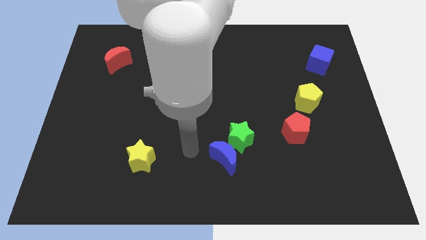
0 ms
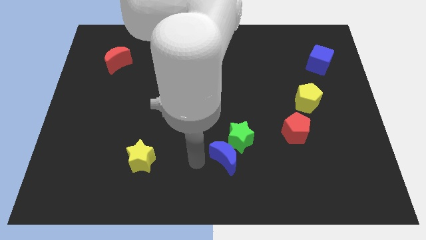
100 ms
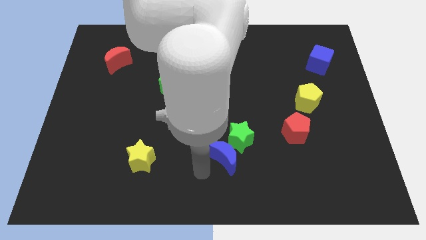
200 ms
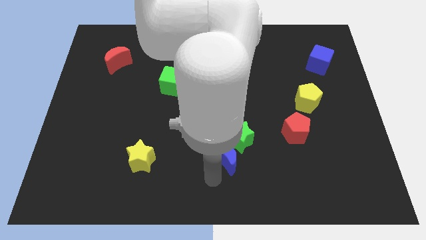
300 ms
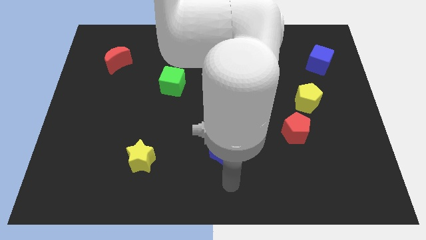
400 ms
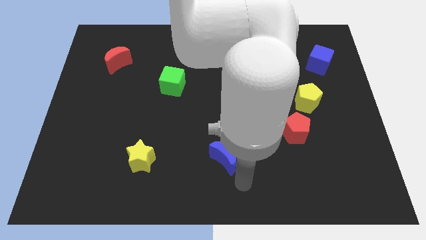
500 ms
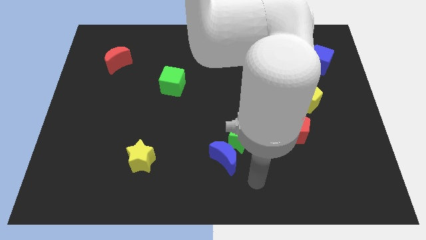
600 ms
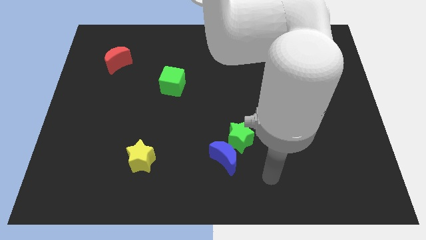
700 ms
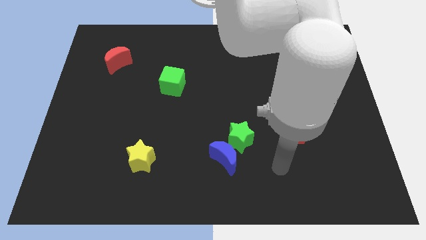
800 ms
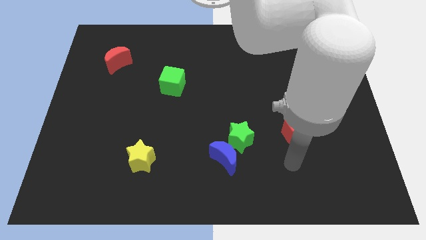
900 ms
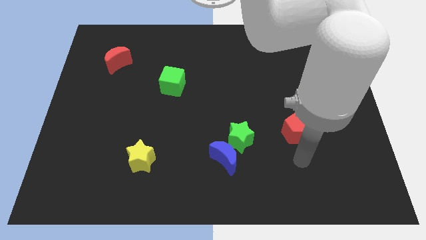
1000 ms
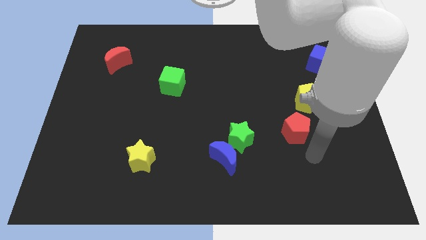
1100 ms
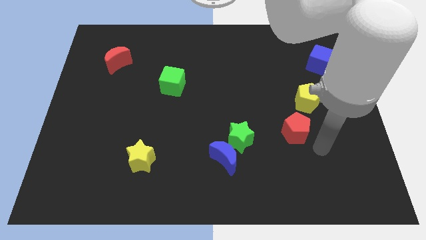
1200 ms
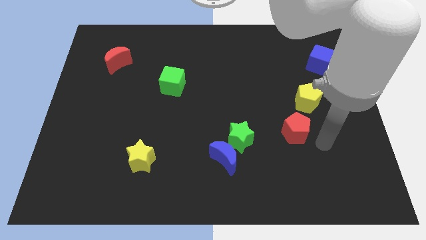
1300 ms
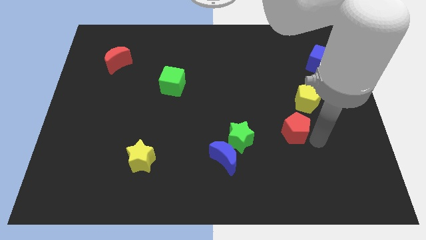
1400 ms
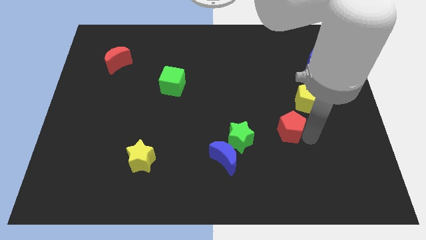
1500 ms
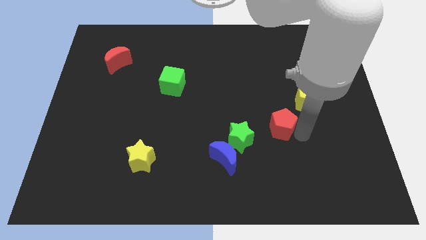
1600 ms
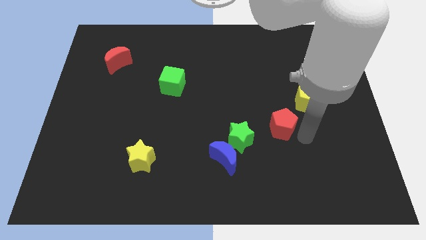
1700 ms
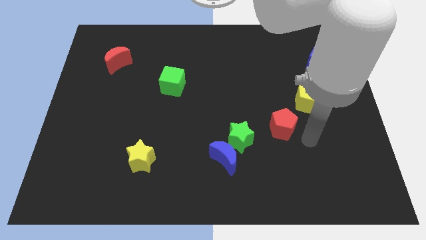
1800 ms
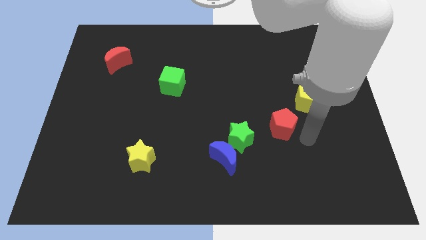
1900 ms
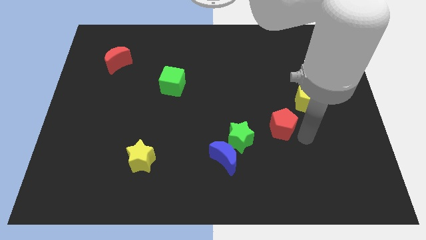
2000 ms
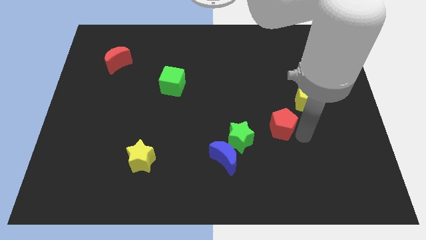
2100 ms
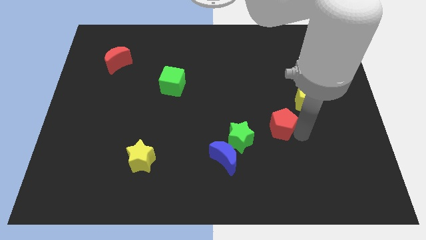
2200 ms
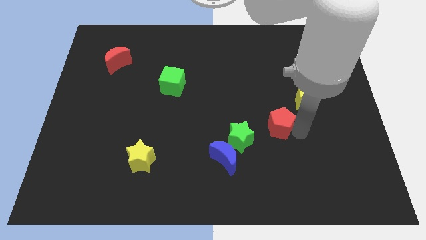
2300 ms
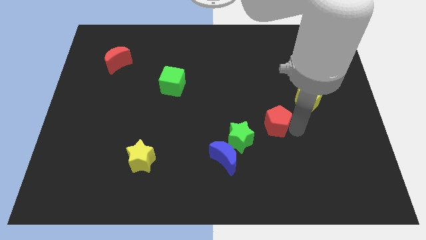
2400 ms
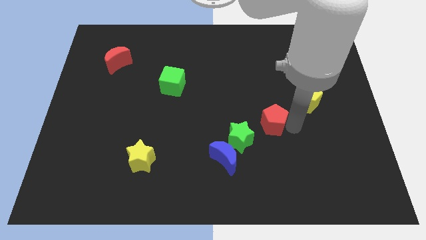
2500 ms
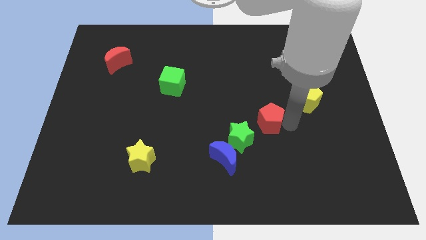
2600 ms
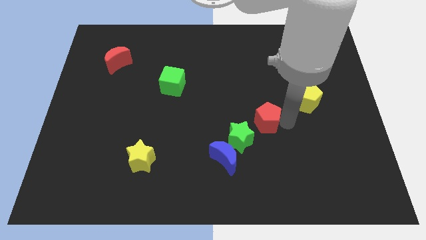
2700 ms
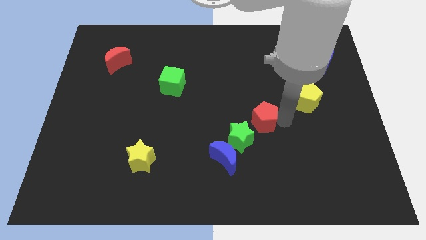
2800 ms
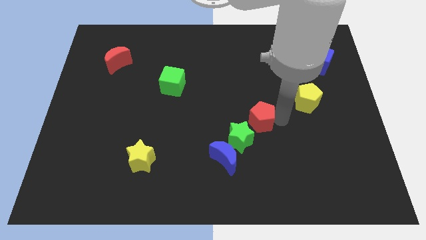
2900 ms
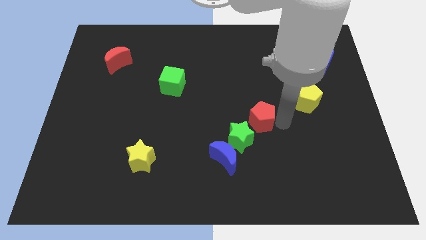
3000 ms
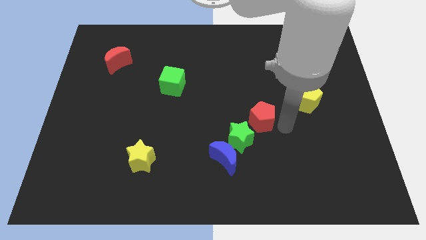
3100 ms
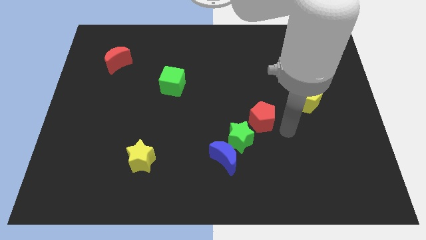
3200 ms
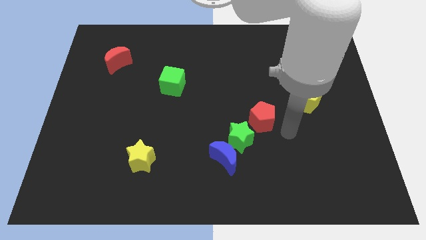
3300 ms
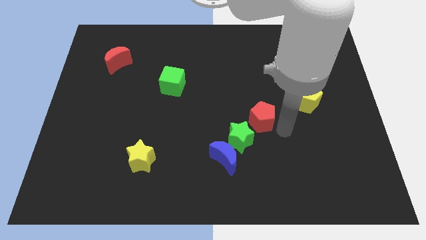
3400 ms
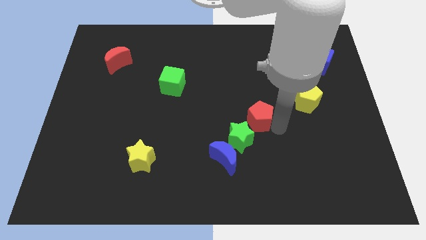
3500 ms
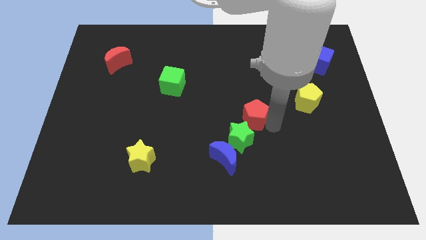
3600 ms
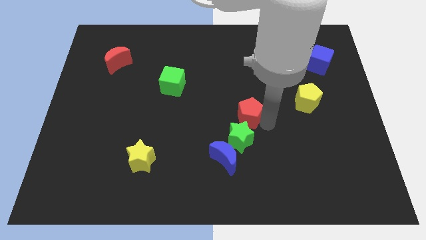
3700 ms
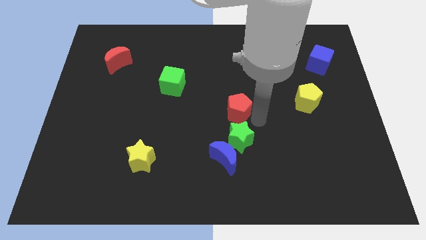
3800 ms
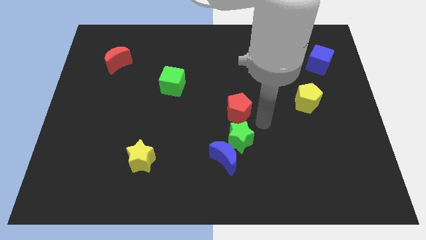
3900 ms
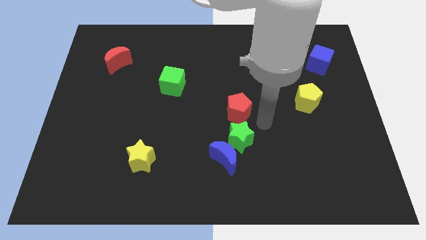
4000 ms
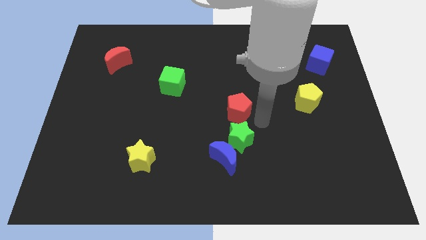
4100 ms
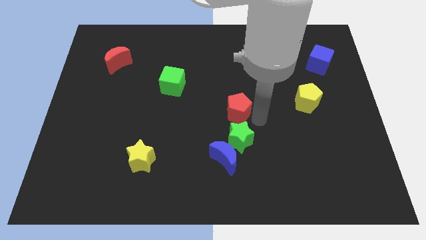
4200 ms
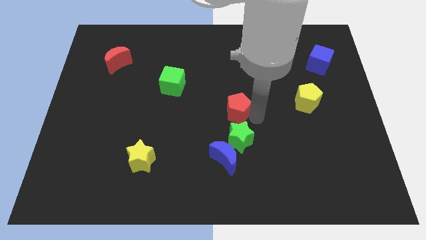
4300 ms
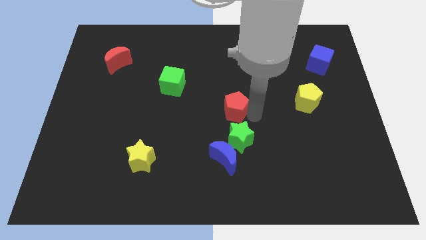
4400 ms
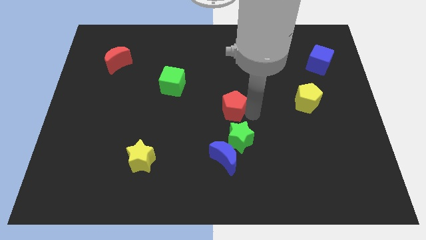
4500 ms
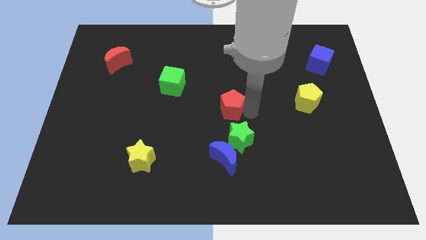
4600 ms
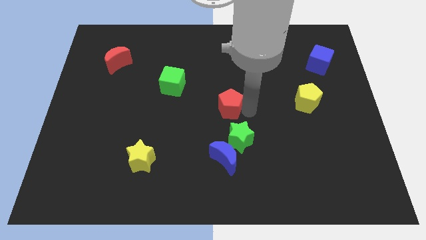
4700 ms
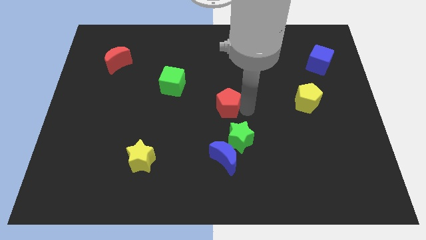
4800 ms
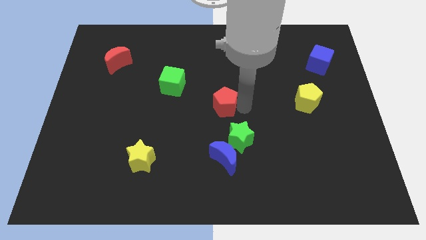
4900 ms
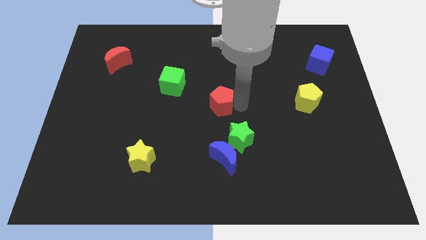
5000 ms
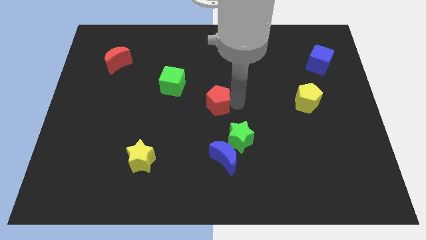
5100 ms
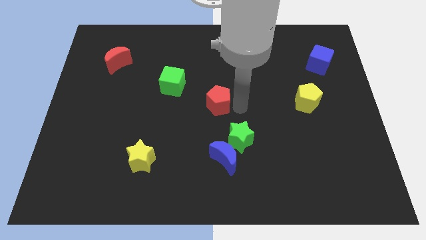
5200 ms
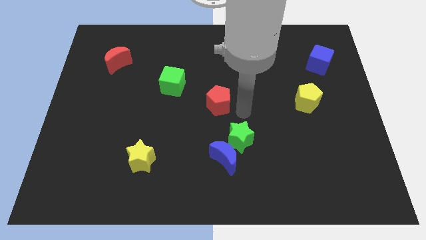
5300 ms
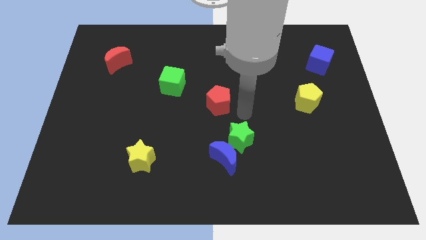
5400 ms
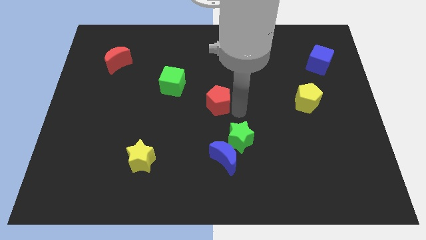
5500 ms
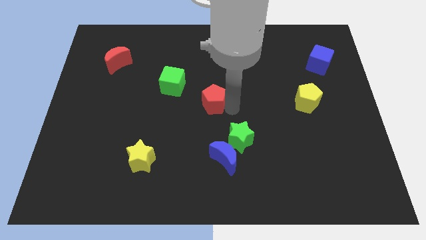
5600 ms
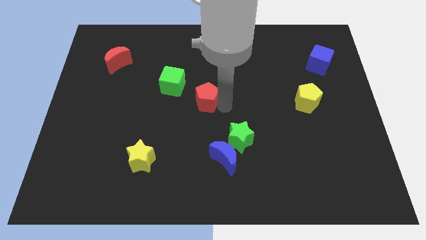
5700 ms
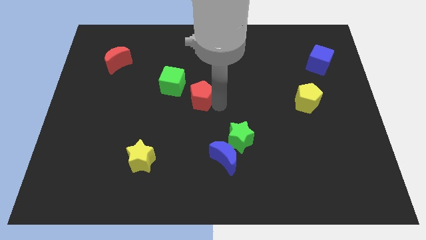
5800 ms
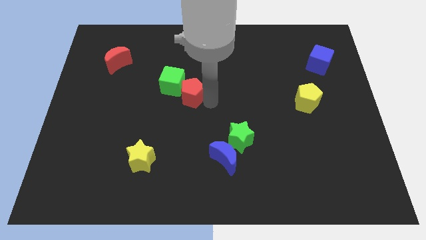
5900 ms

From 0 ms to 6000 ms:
push the red pentagon next to the green cube

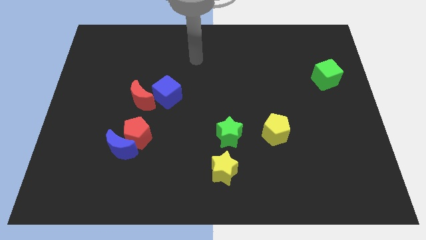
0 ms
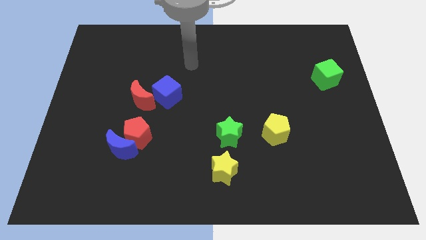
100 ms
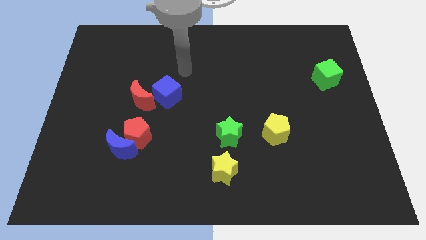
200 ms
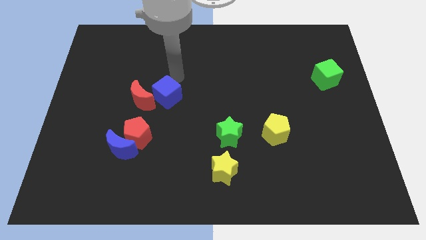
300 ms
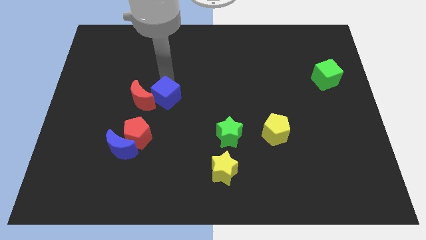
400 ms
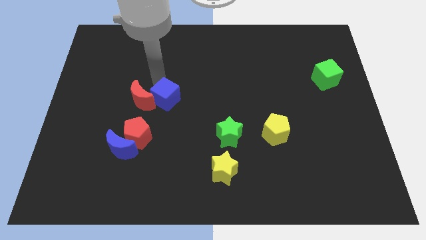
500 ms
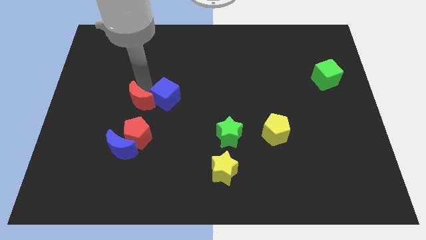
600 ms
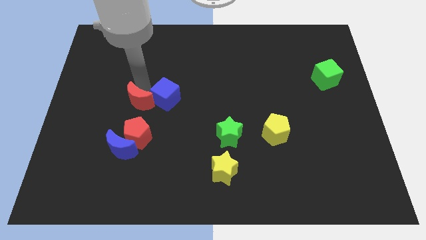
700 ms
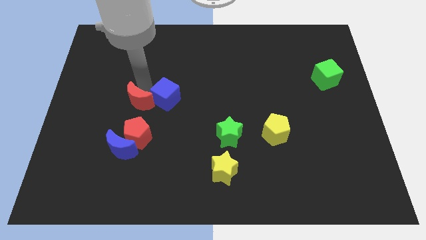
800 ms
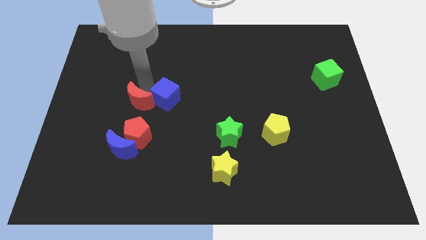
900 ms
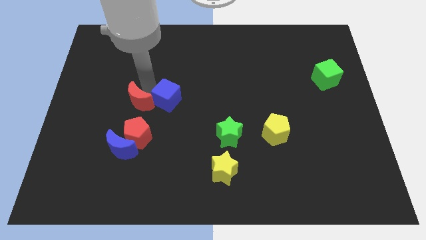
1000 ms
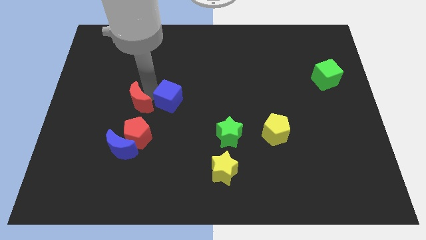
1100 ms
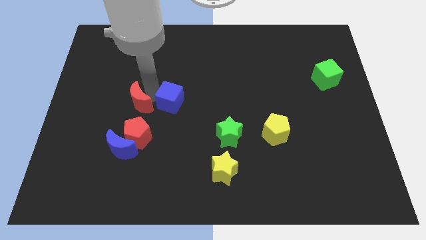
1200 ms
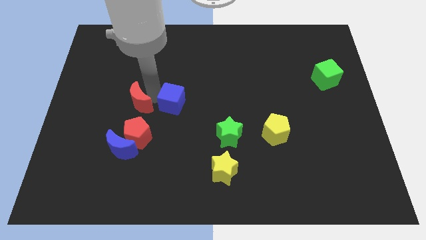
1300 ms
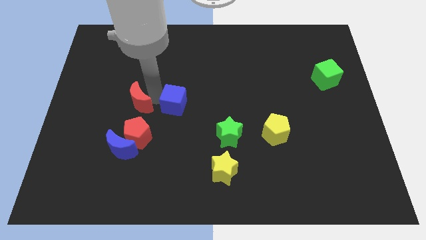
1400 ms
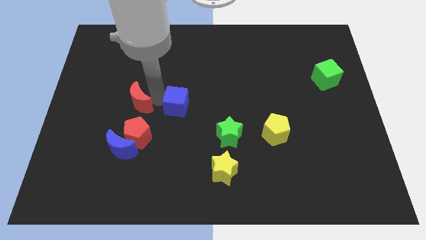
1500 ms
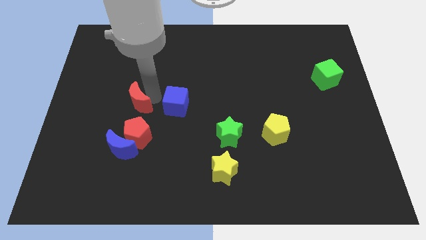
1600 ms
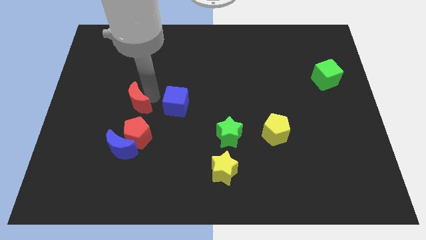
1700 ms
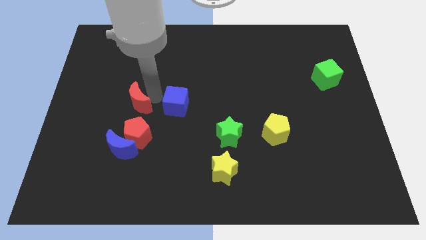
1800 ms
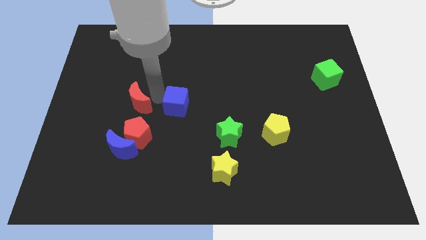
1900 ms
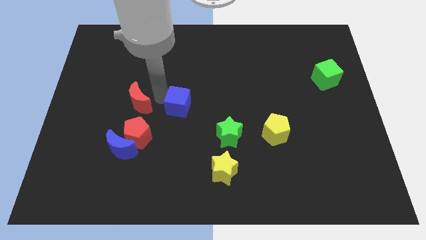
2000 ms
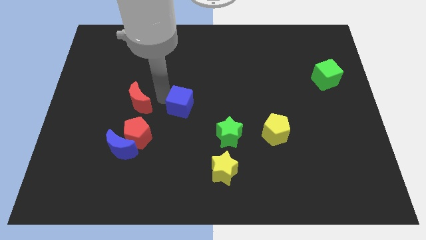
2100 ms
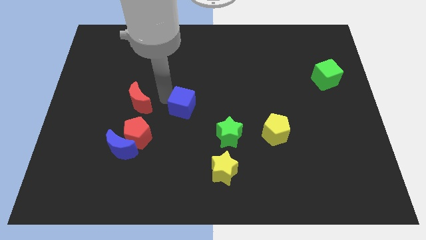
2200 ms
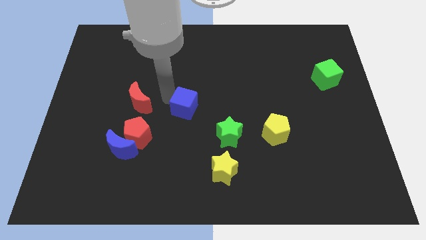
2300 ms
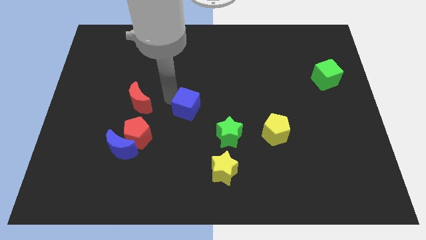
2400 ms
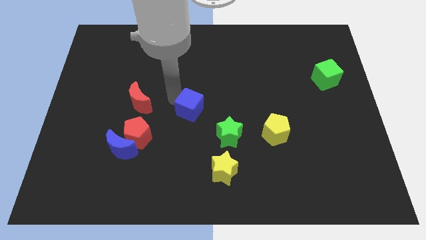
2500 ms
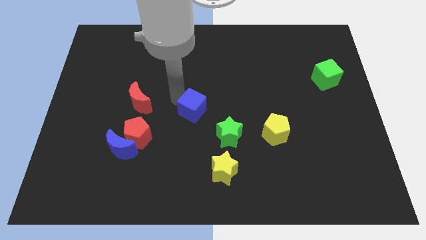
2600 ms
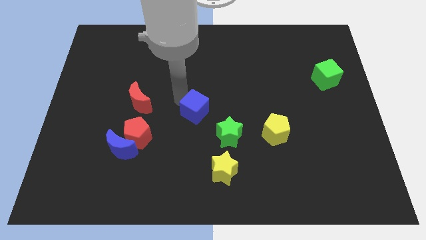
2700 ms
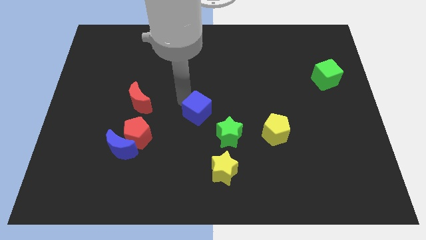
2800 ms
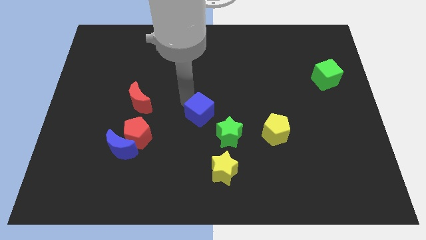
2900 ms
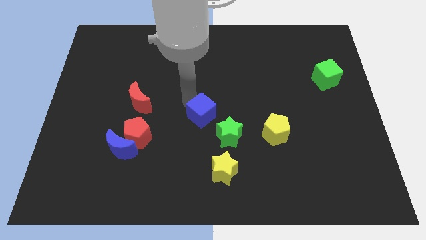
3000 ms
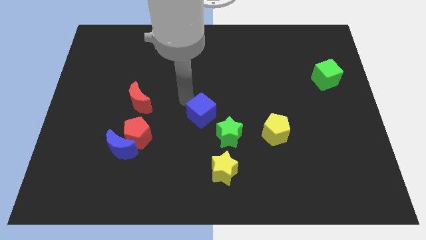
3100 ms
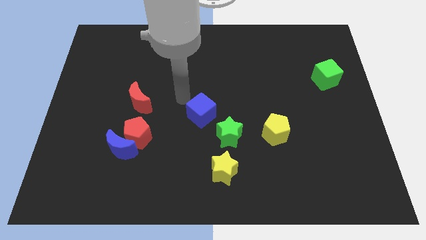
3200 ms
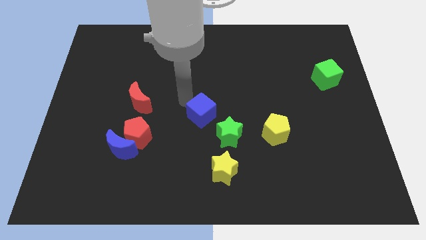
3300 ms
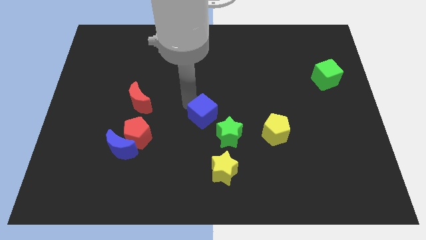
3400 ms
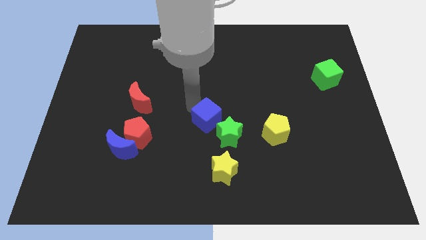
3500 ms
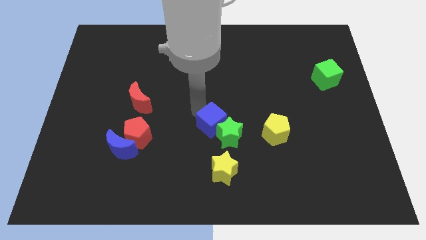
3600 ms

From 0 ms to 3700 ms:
slide the blue cube close to the green star
